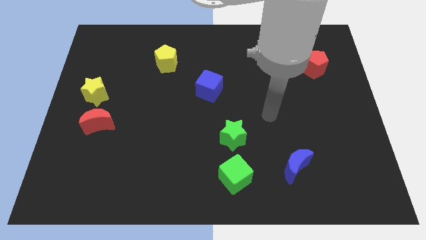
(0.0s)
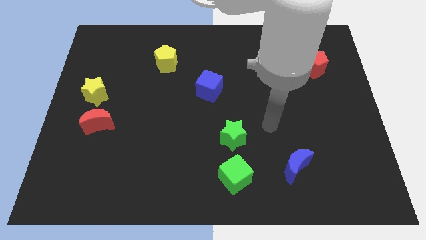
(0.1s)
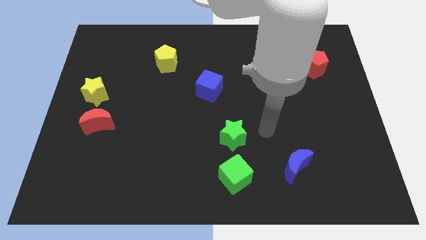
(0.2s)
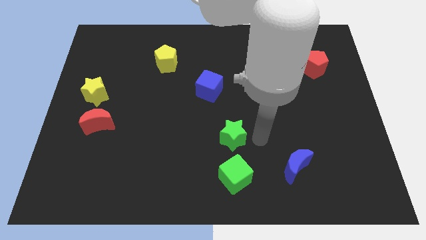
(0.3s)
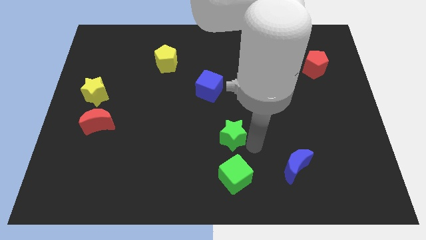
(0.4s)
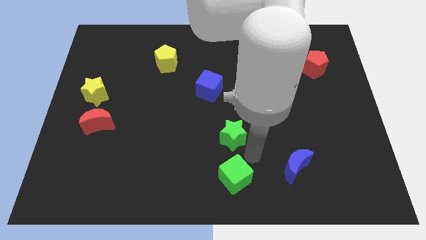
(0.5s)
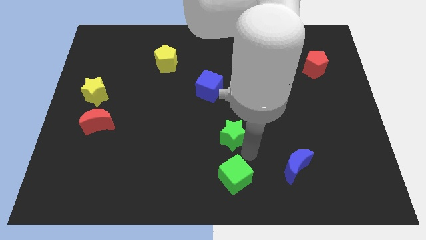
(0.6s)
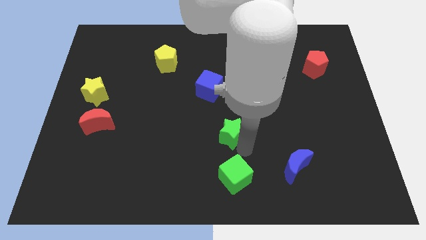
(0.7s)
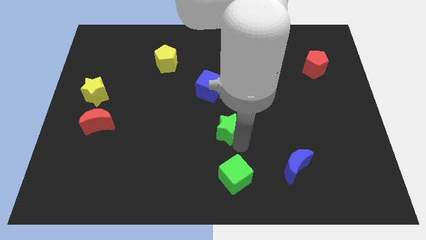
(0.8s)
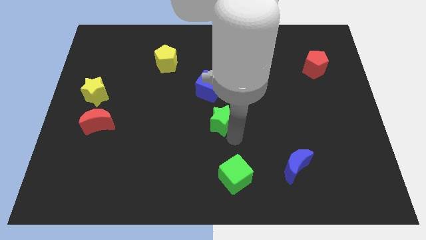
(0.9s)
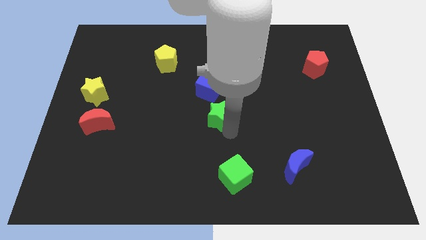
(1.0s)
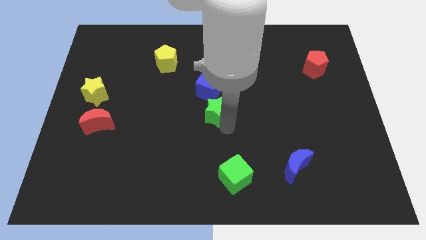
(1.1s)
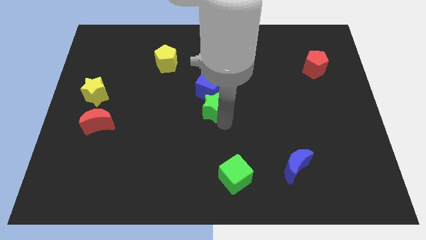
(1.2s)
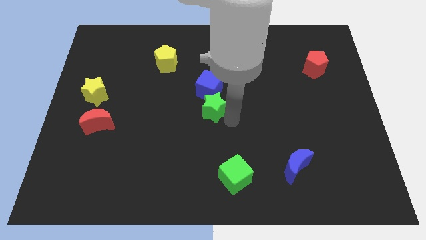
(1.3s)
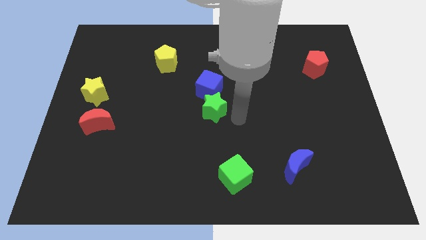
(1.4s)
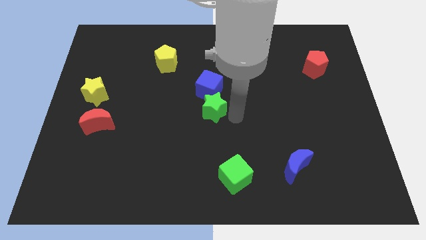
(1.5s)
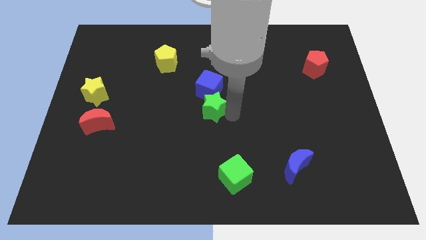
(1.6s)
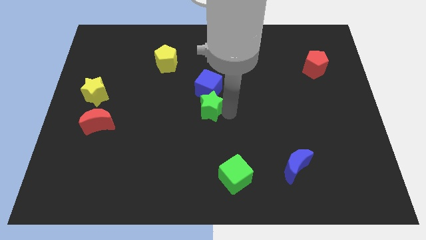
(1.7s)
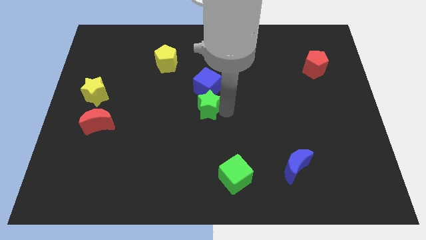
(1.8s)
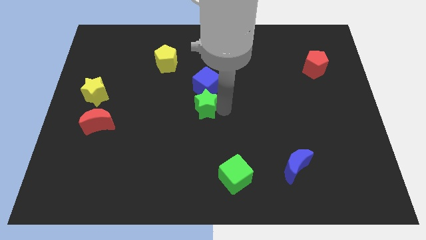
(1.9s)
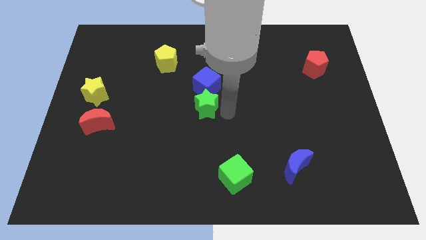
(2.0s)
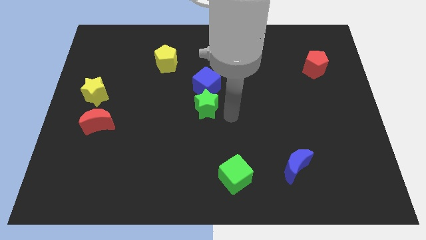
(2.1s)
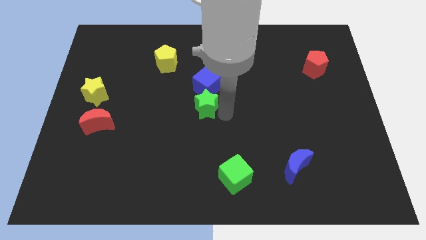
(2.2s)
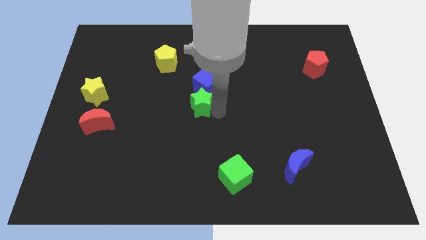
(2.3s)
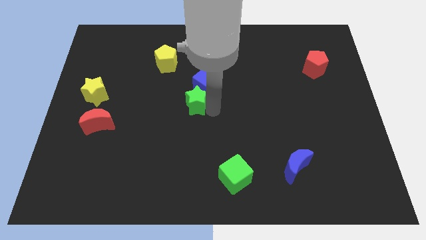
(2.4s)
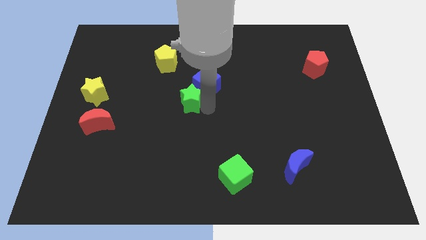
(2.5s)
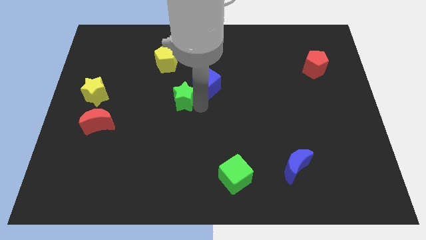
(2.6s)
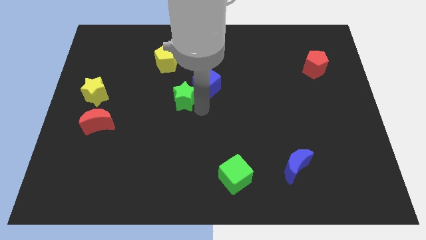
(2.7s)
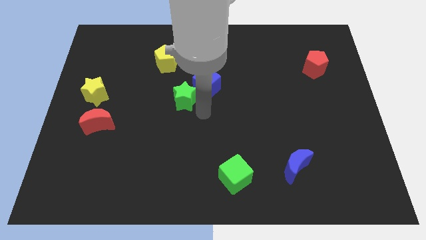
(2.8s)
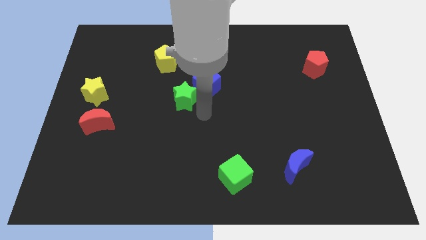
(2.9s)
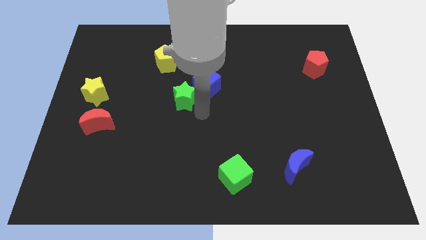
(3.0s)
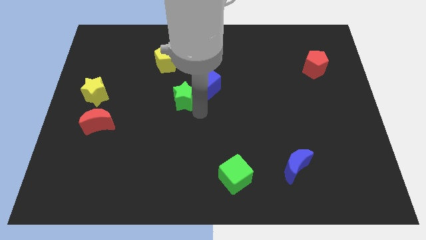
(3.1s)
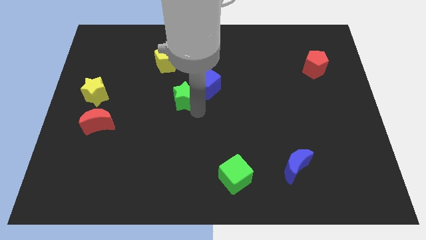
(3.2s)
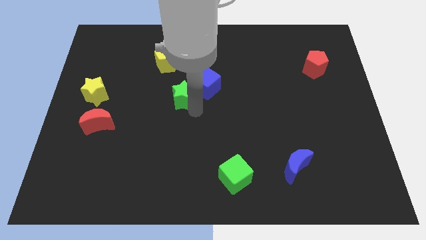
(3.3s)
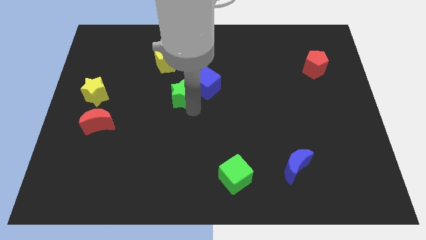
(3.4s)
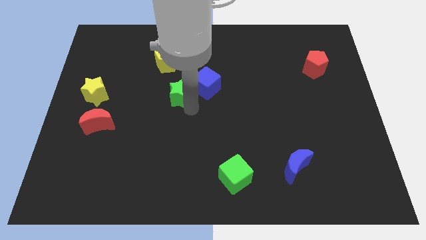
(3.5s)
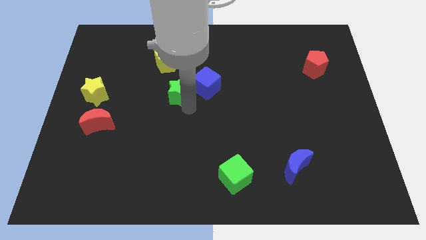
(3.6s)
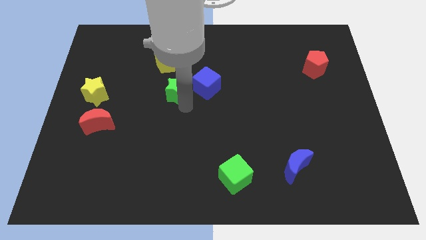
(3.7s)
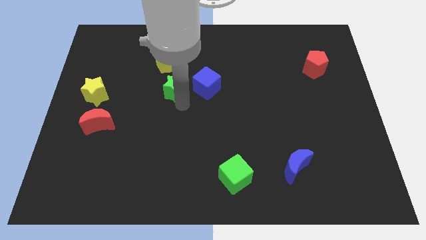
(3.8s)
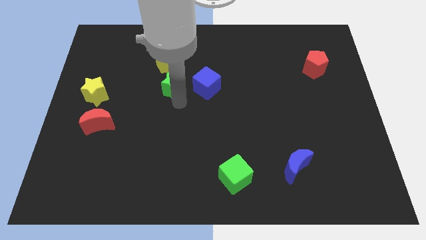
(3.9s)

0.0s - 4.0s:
slide the green star upwards and then left

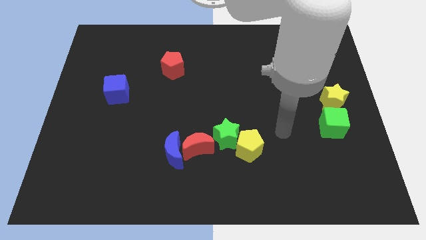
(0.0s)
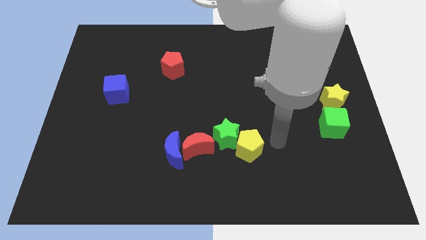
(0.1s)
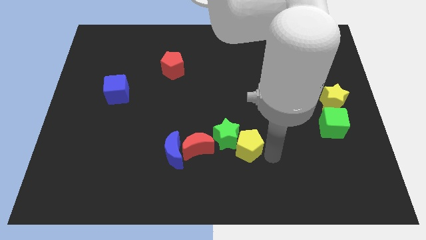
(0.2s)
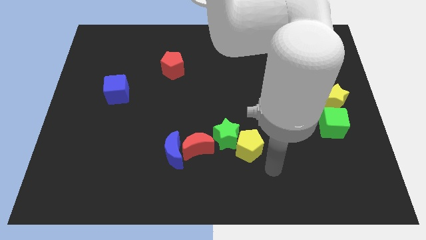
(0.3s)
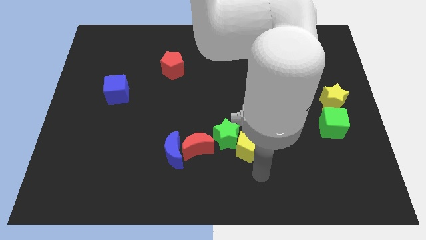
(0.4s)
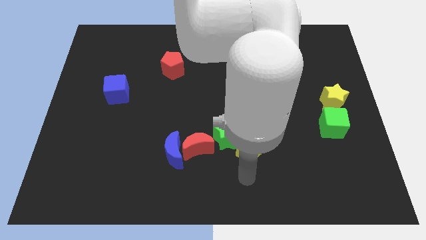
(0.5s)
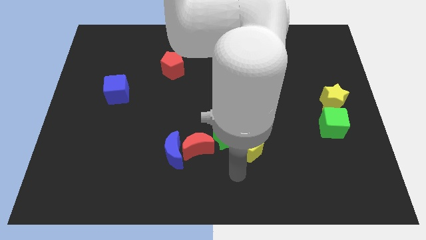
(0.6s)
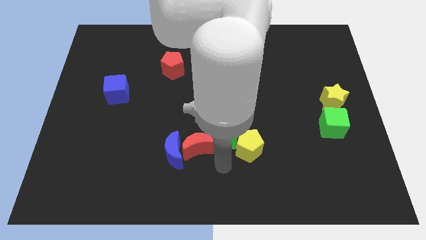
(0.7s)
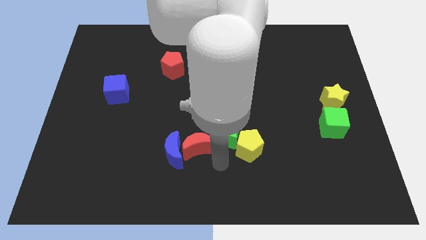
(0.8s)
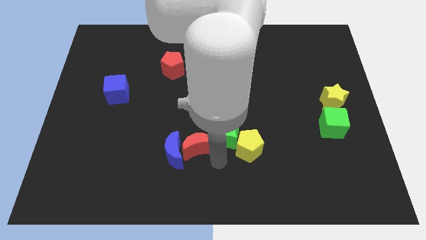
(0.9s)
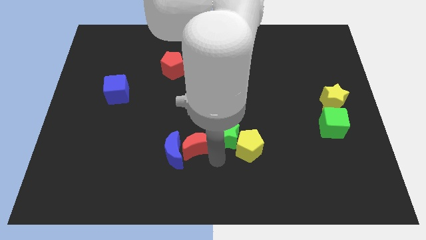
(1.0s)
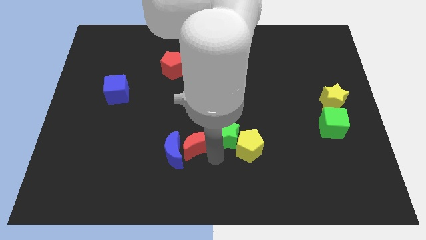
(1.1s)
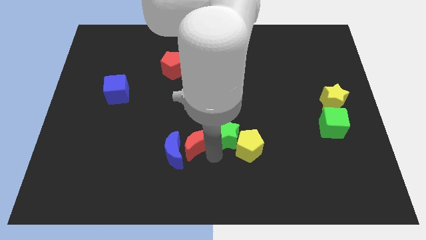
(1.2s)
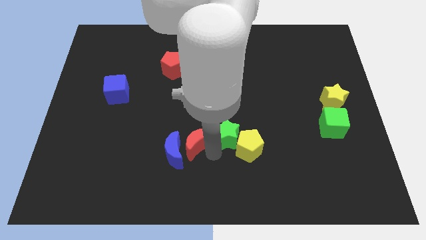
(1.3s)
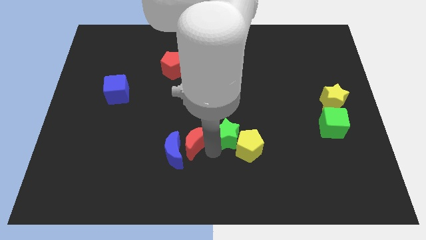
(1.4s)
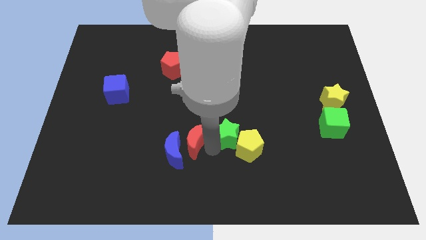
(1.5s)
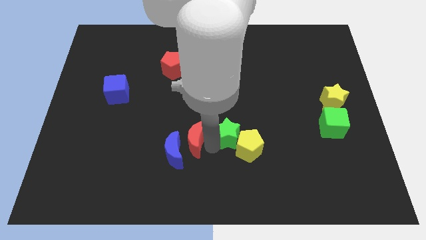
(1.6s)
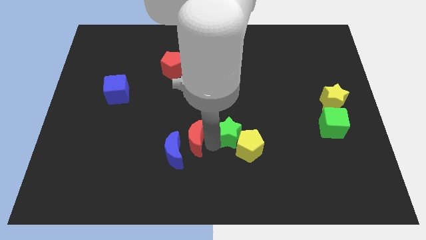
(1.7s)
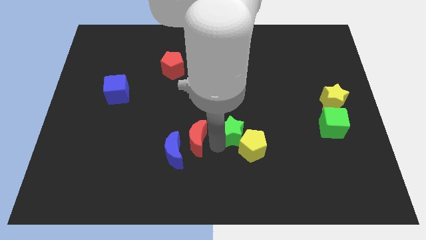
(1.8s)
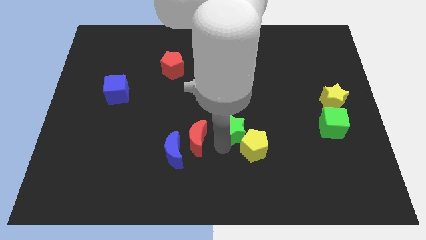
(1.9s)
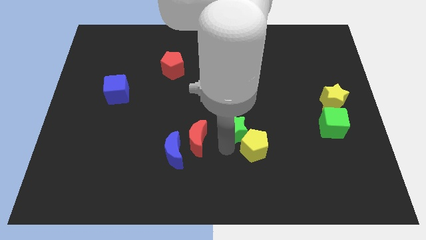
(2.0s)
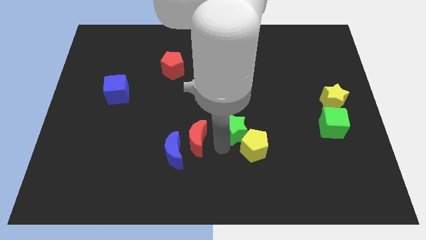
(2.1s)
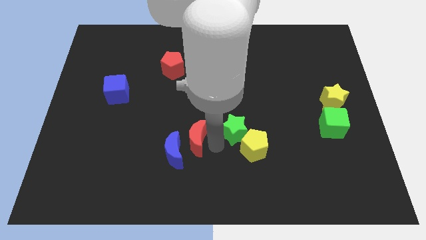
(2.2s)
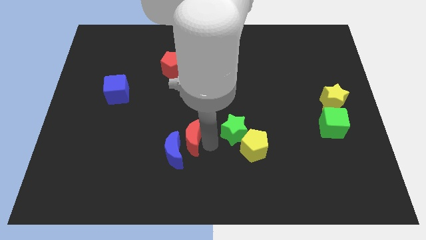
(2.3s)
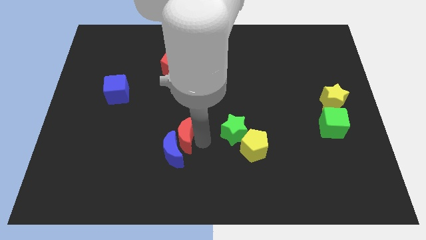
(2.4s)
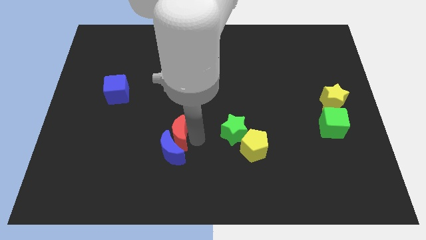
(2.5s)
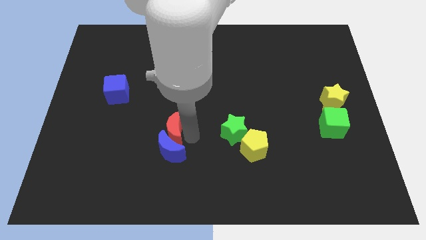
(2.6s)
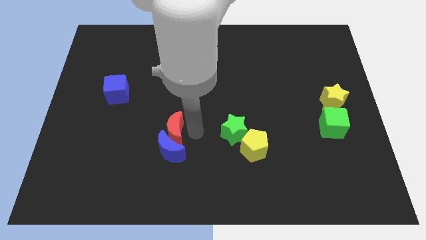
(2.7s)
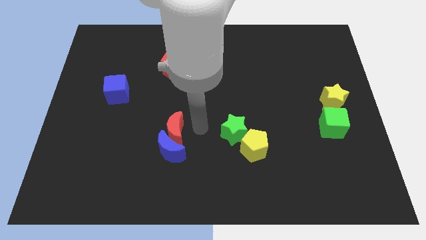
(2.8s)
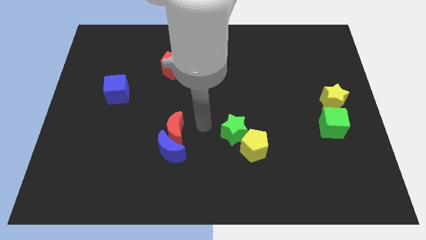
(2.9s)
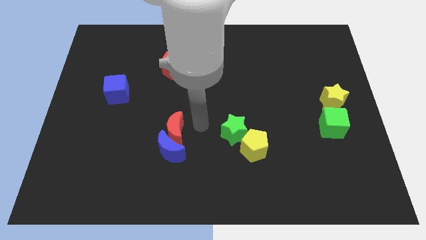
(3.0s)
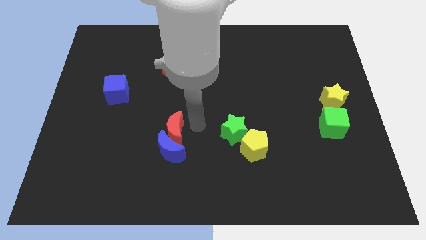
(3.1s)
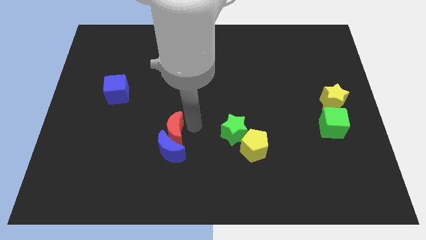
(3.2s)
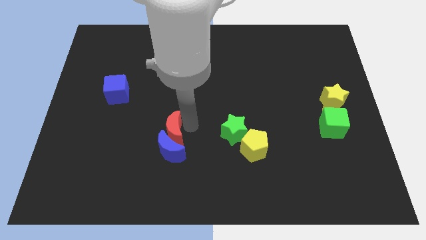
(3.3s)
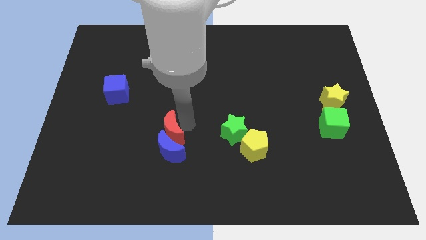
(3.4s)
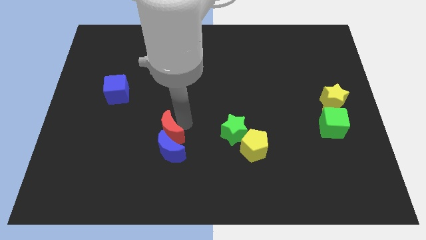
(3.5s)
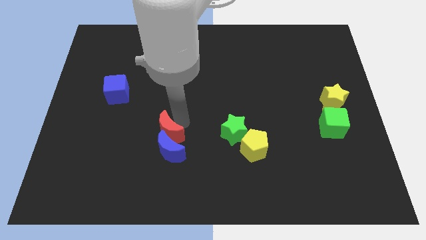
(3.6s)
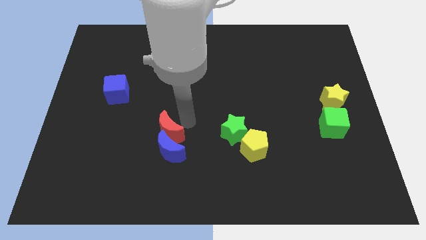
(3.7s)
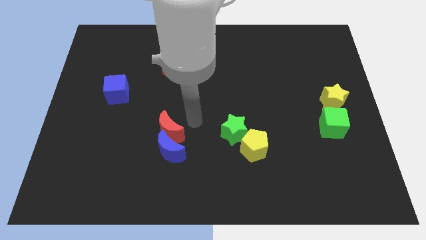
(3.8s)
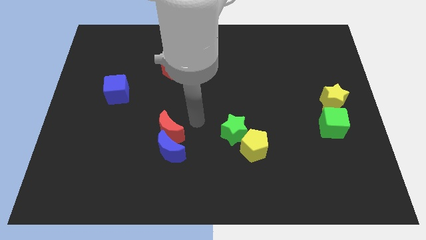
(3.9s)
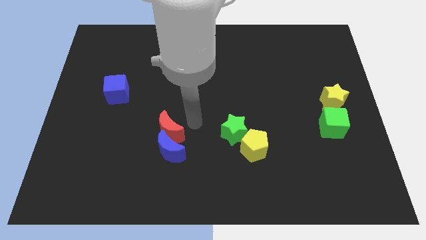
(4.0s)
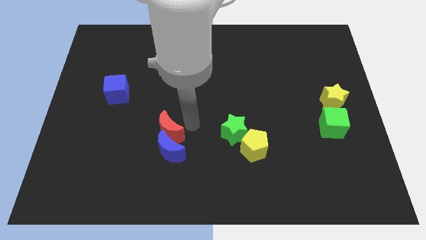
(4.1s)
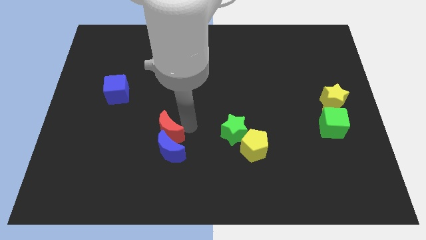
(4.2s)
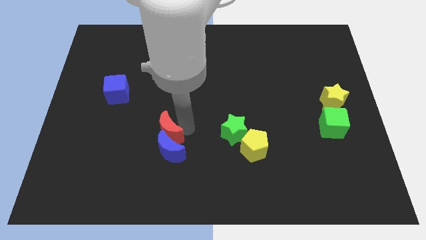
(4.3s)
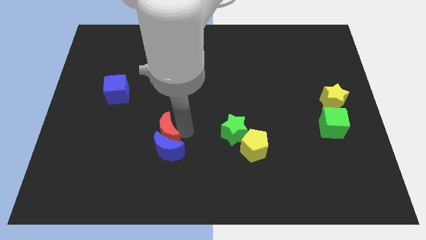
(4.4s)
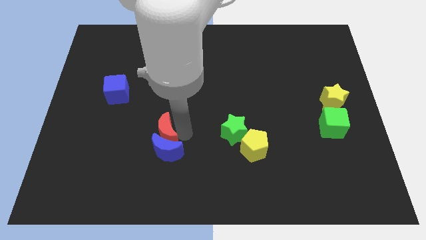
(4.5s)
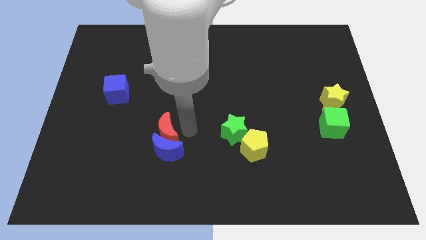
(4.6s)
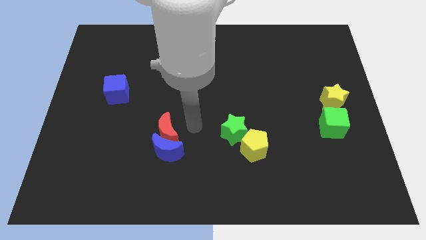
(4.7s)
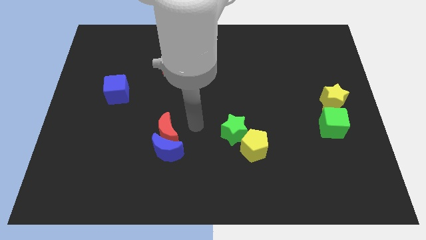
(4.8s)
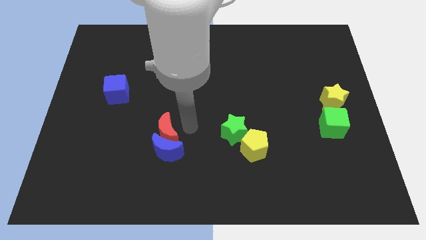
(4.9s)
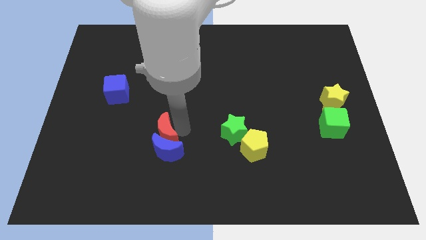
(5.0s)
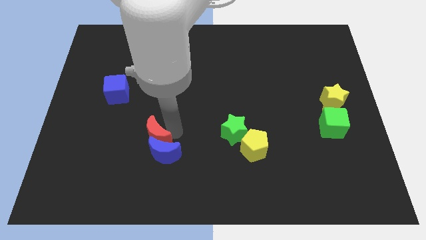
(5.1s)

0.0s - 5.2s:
slide the red moon left somewhat
